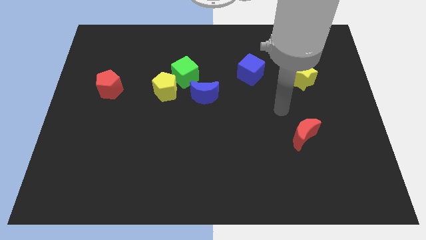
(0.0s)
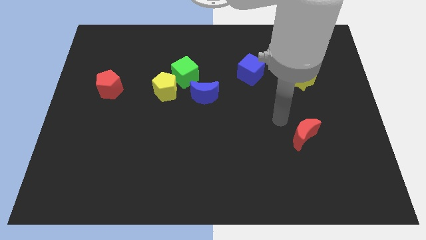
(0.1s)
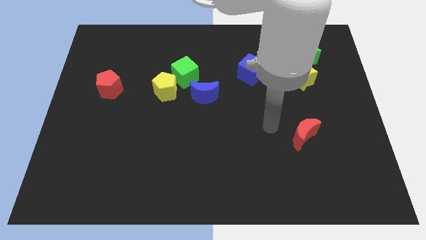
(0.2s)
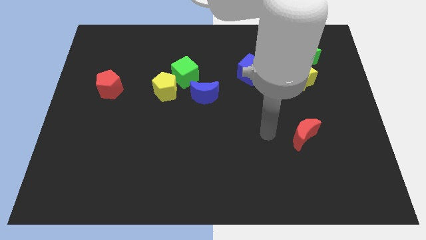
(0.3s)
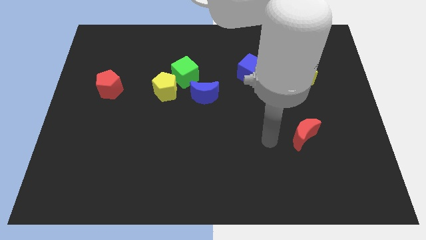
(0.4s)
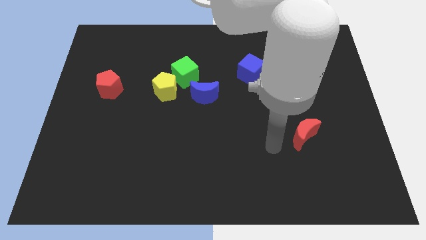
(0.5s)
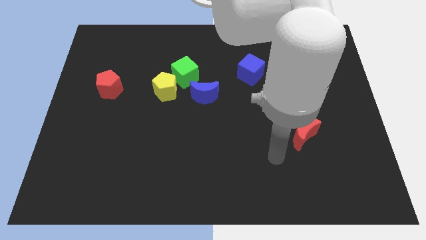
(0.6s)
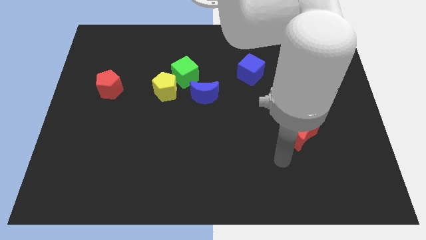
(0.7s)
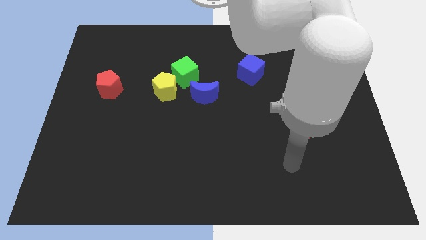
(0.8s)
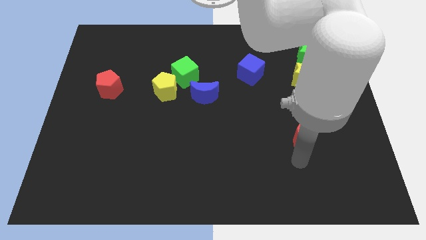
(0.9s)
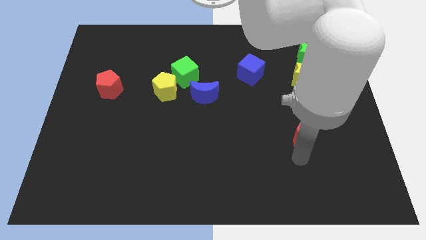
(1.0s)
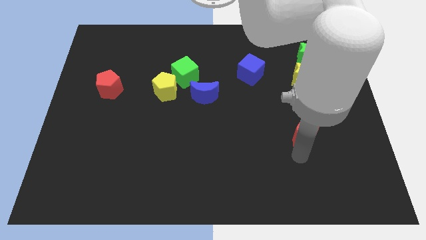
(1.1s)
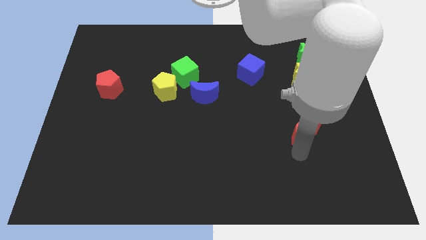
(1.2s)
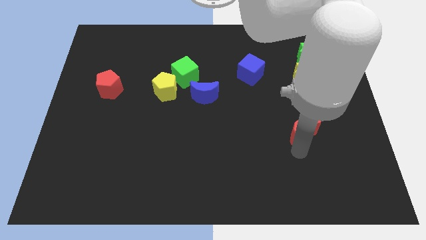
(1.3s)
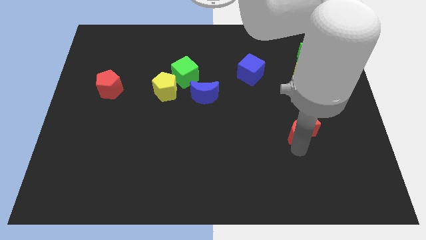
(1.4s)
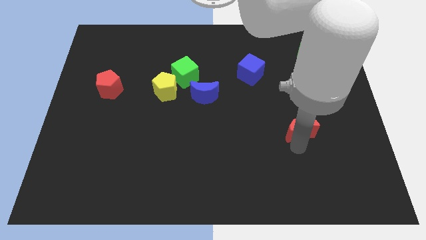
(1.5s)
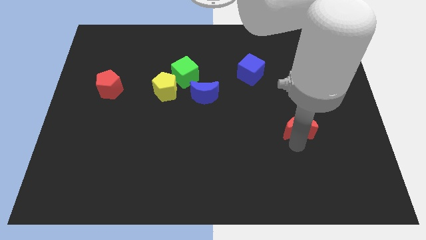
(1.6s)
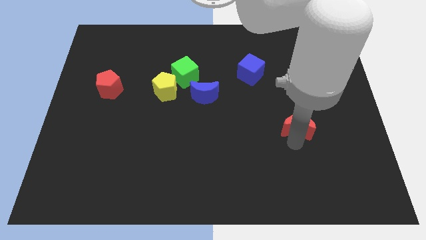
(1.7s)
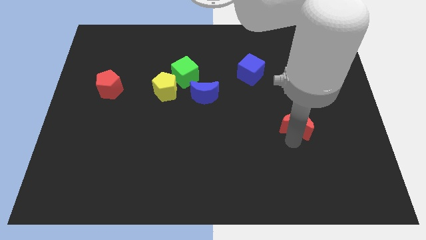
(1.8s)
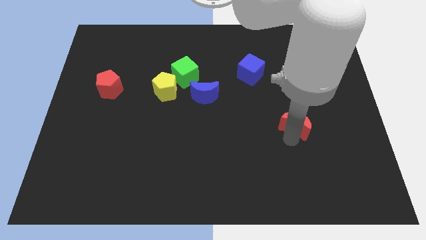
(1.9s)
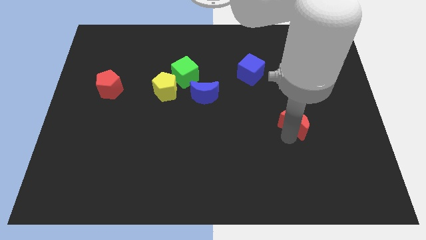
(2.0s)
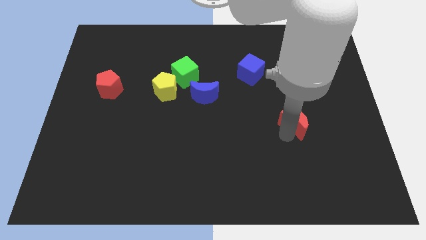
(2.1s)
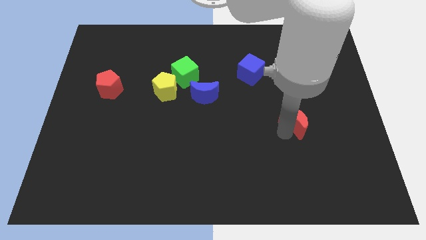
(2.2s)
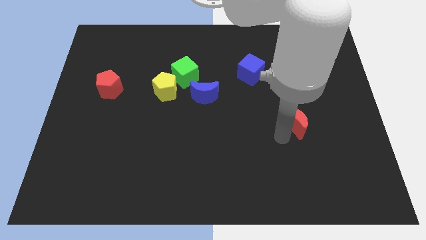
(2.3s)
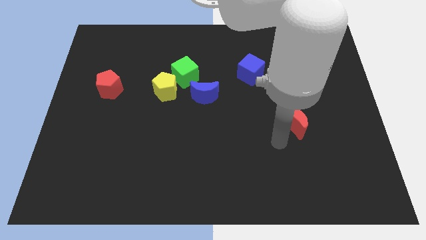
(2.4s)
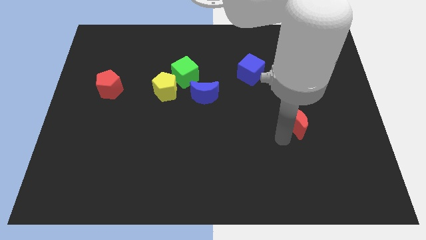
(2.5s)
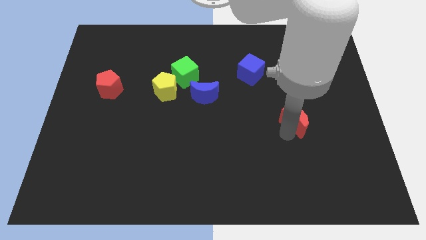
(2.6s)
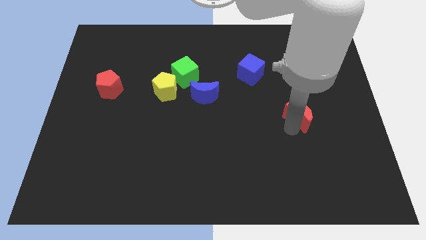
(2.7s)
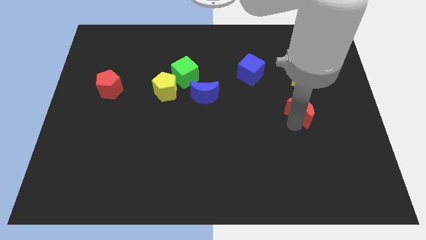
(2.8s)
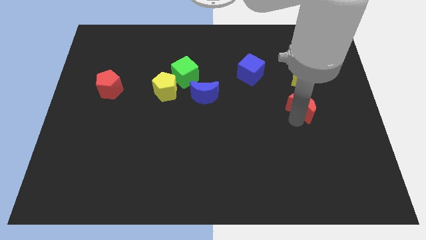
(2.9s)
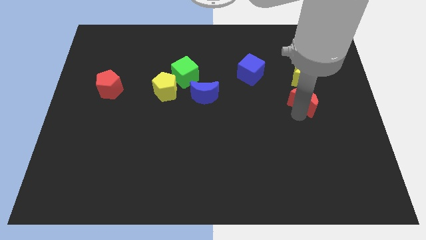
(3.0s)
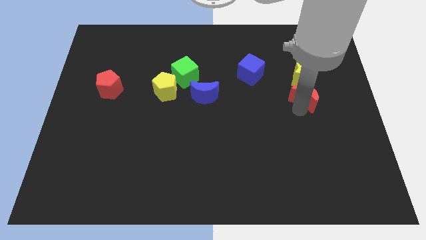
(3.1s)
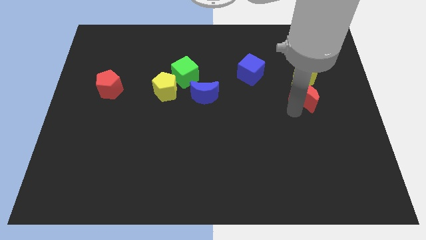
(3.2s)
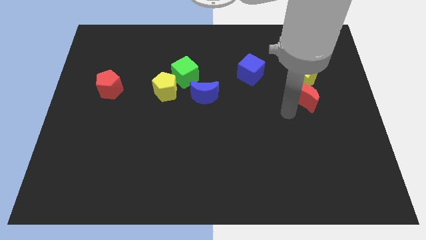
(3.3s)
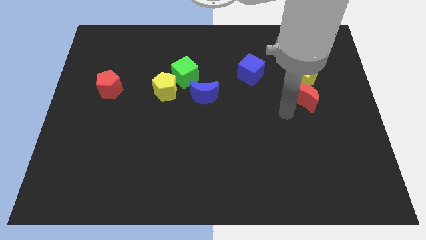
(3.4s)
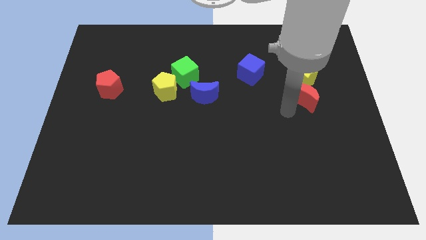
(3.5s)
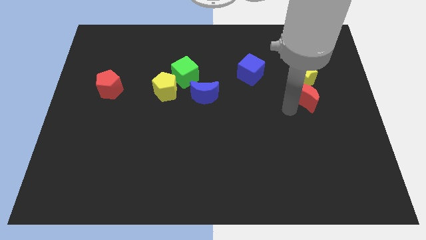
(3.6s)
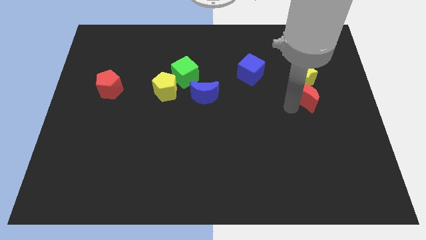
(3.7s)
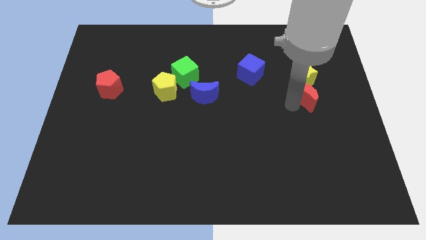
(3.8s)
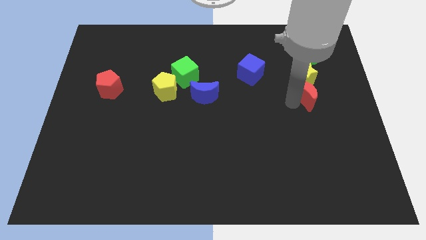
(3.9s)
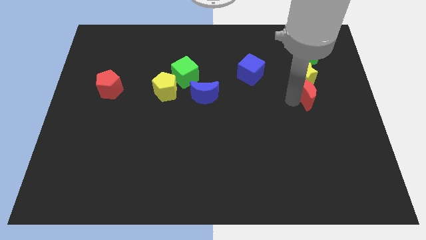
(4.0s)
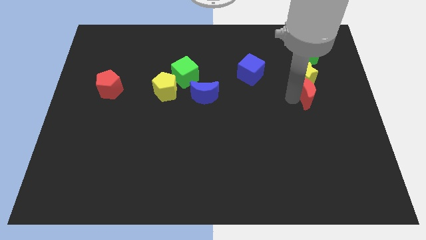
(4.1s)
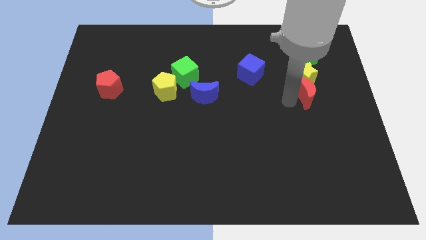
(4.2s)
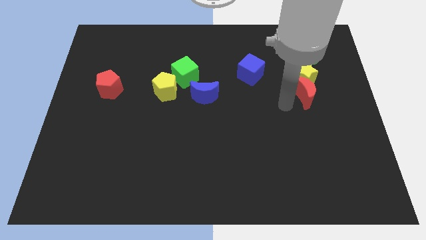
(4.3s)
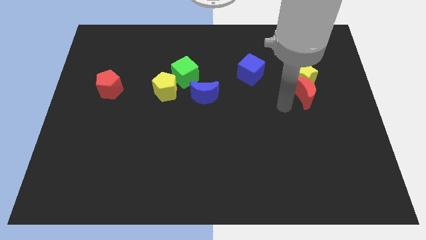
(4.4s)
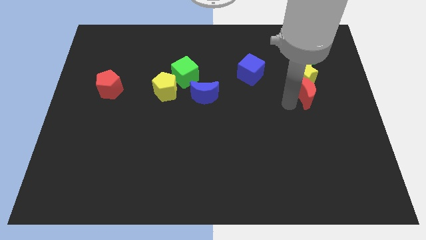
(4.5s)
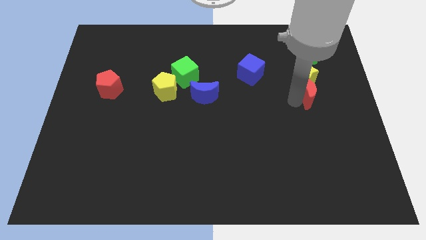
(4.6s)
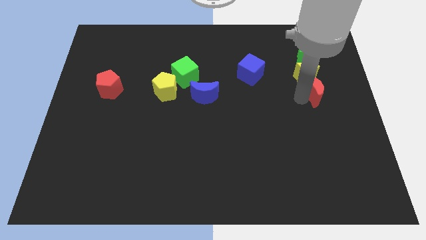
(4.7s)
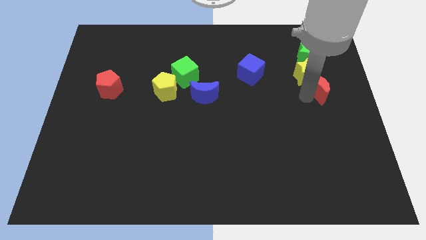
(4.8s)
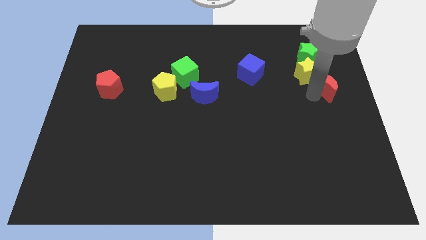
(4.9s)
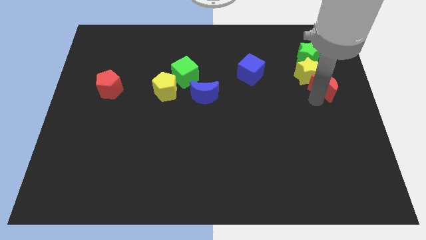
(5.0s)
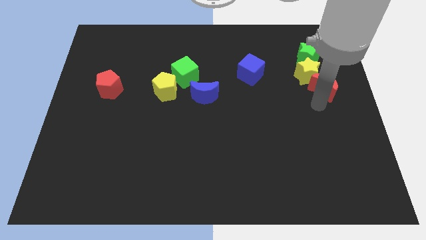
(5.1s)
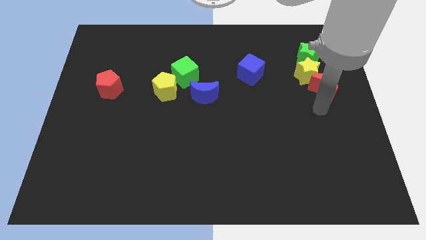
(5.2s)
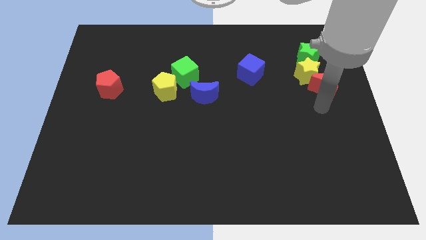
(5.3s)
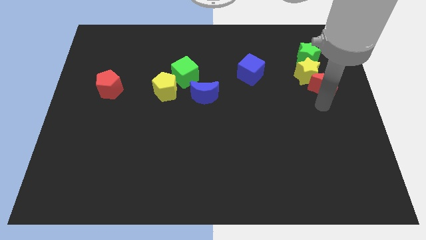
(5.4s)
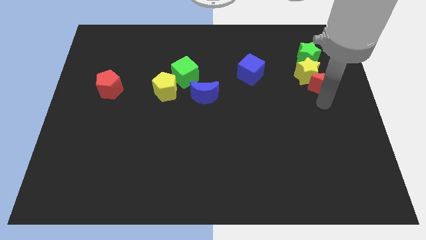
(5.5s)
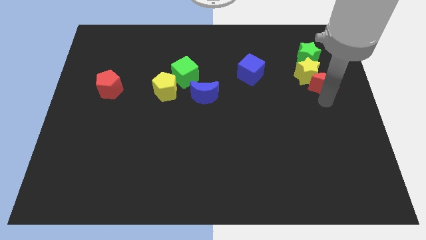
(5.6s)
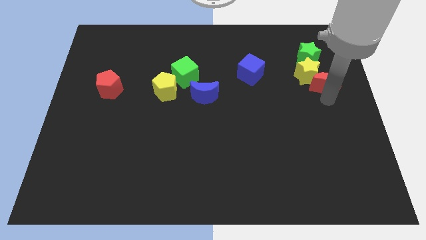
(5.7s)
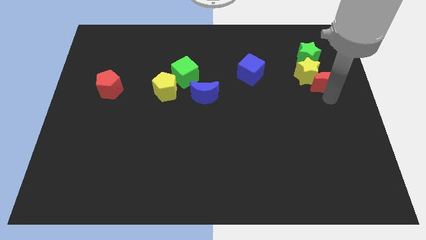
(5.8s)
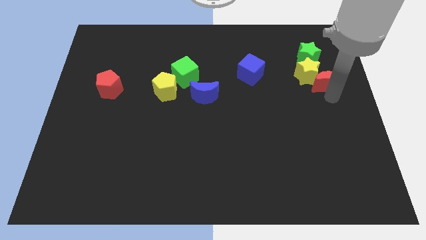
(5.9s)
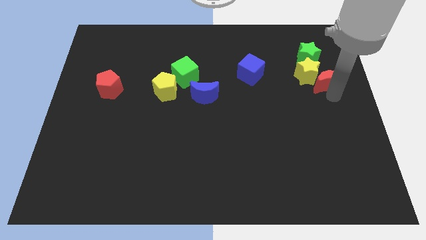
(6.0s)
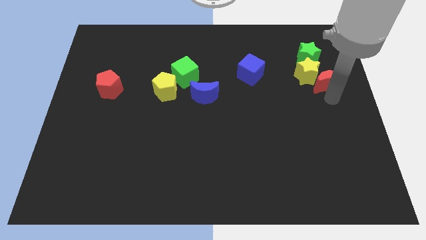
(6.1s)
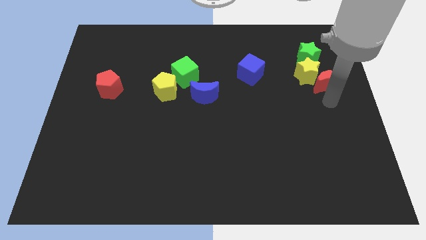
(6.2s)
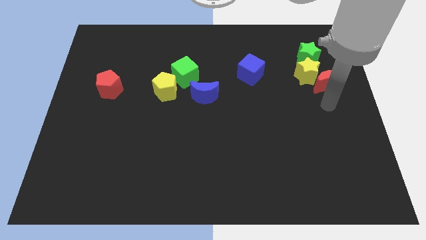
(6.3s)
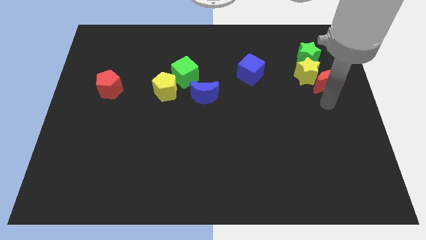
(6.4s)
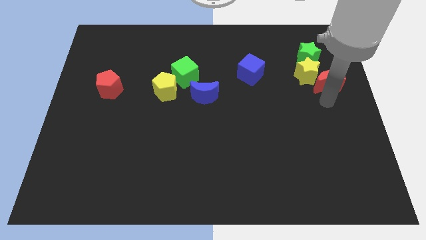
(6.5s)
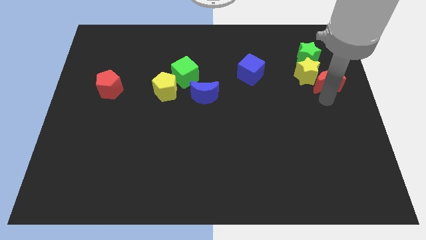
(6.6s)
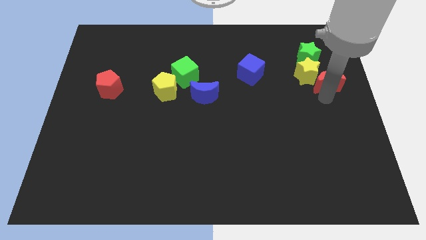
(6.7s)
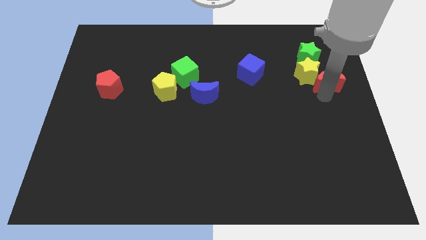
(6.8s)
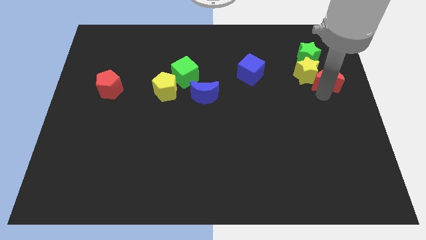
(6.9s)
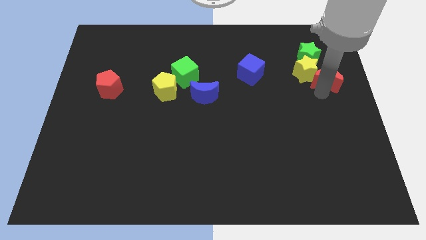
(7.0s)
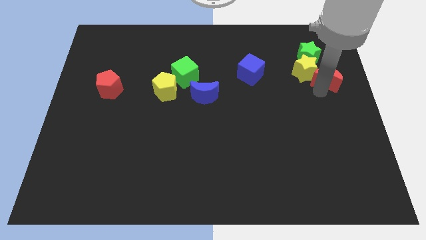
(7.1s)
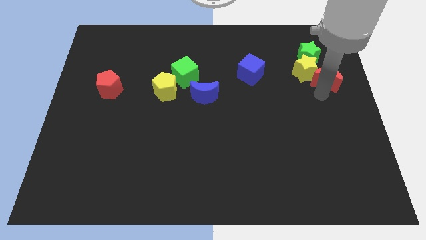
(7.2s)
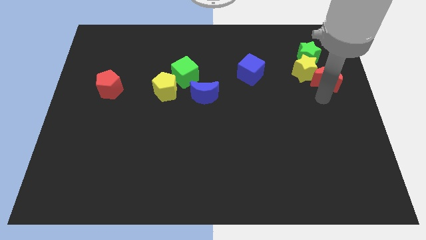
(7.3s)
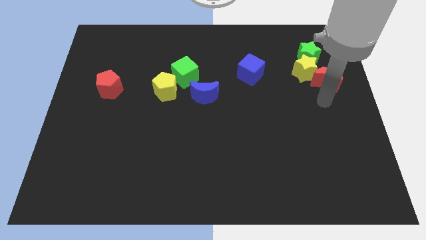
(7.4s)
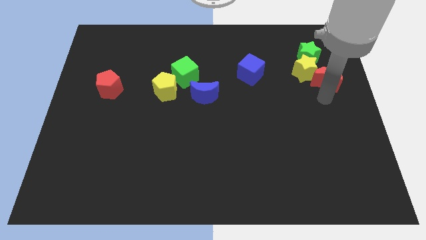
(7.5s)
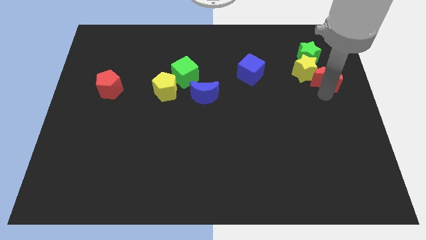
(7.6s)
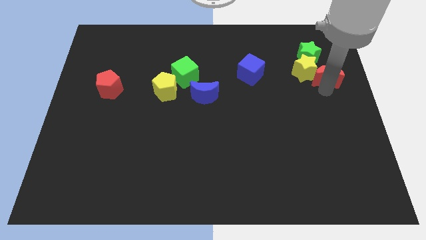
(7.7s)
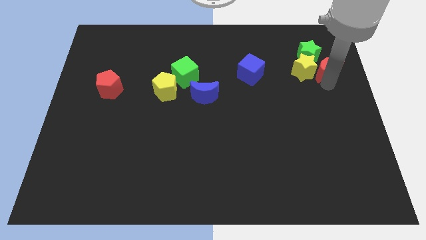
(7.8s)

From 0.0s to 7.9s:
push the red moon to the top right of the yellow star
